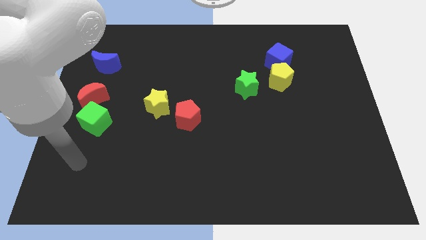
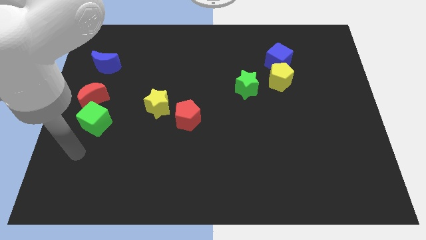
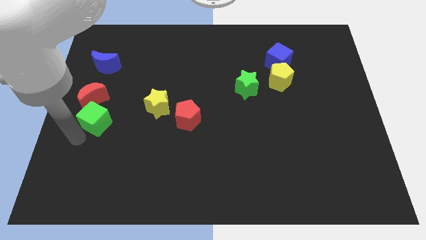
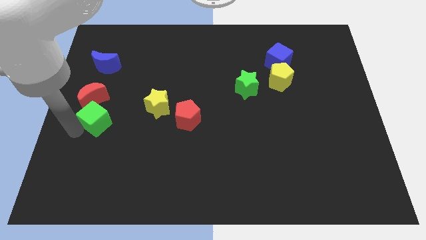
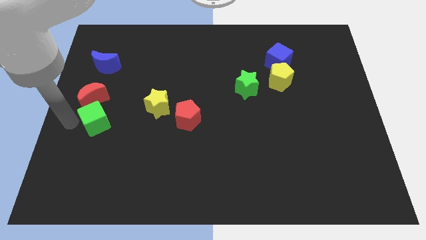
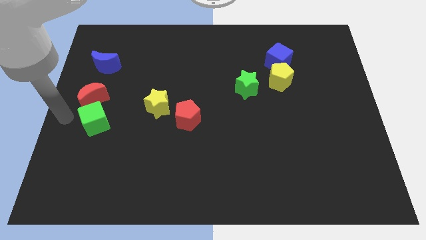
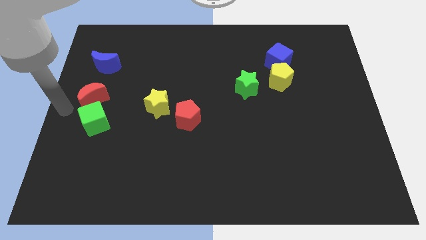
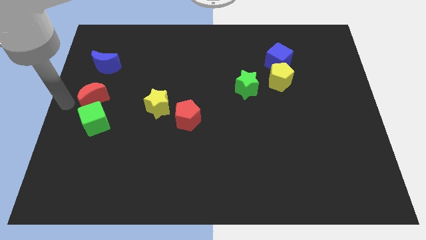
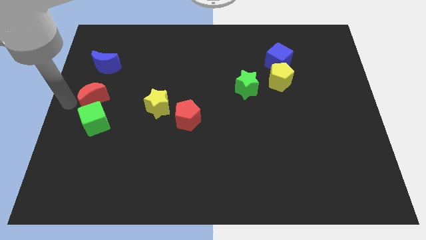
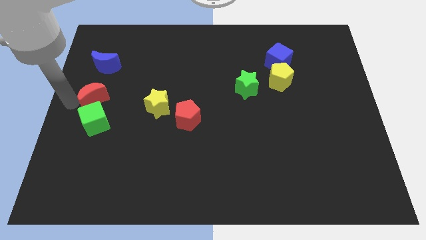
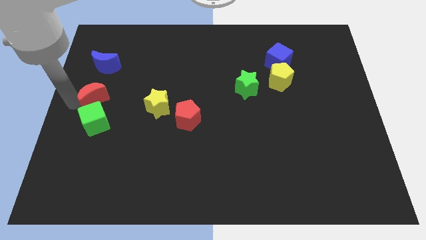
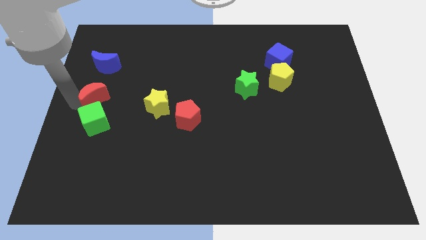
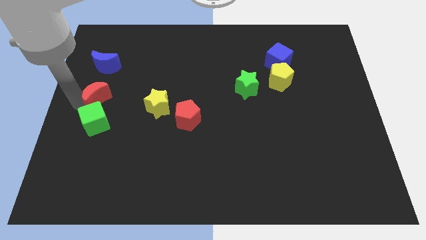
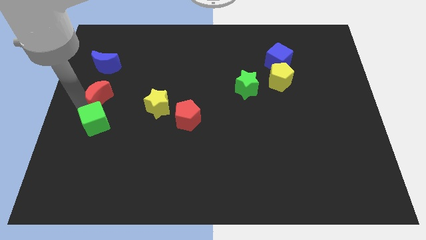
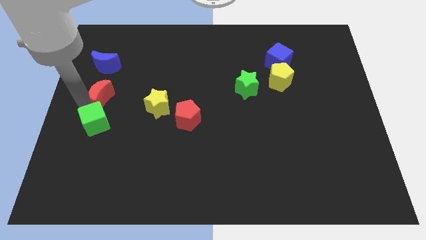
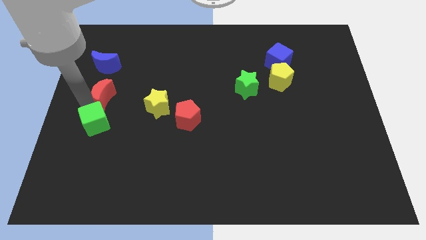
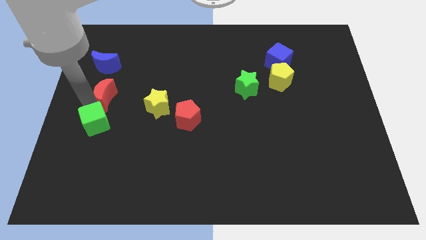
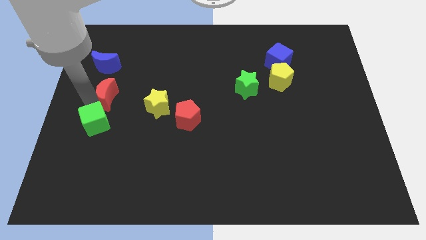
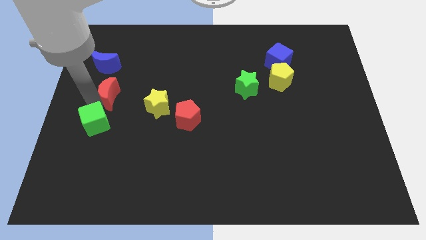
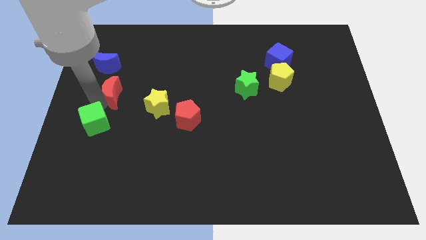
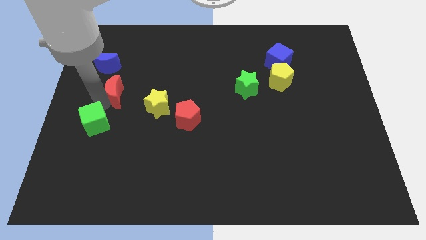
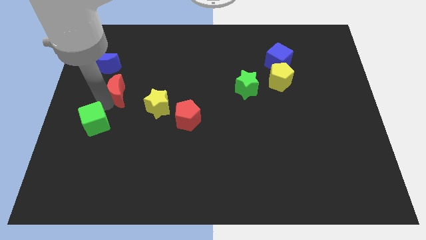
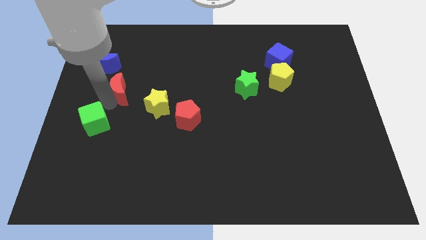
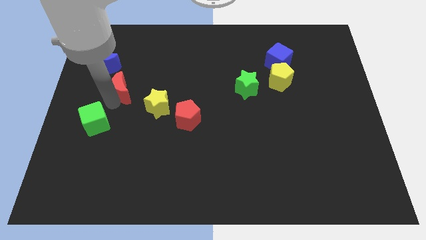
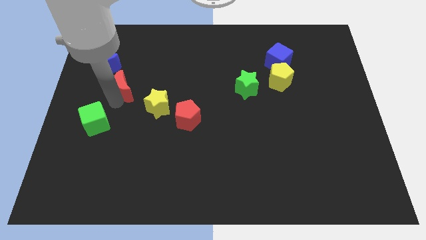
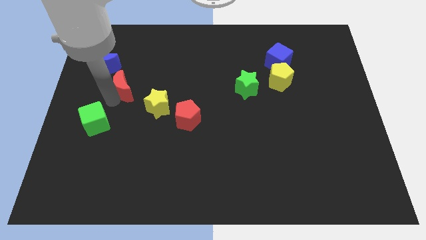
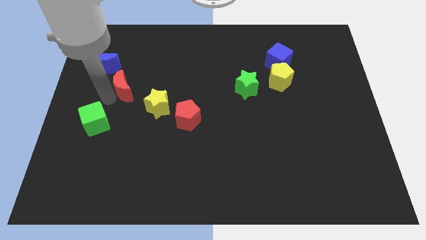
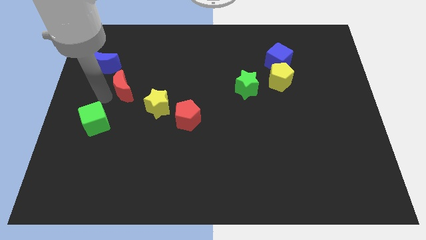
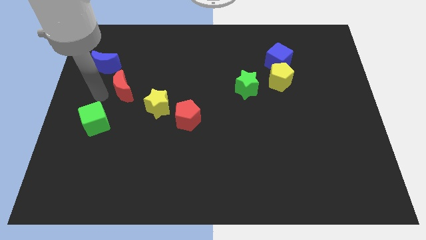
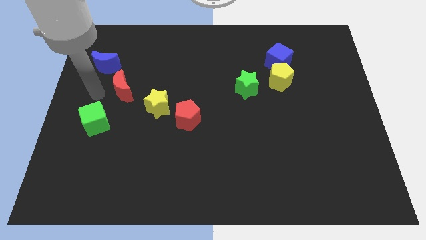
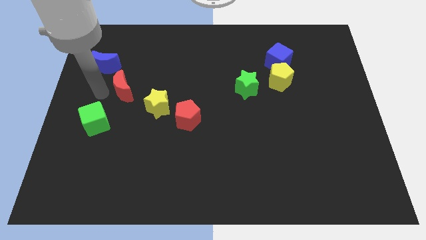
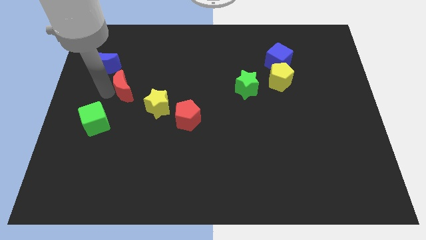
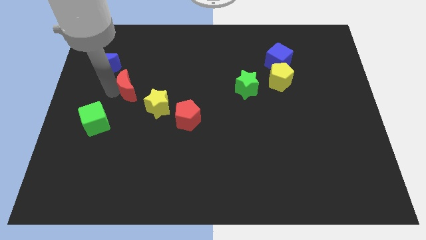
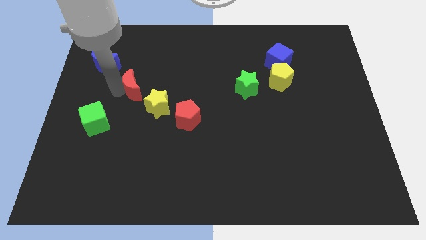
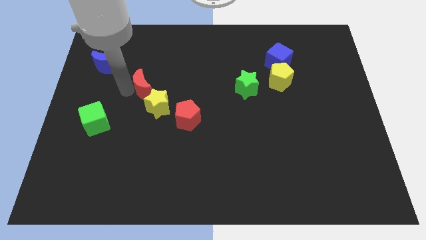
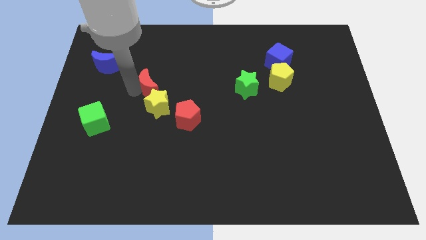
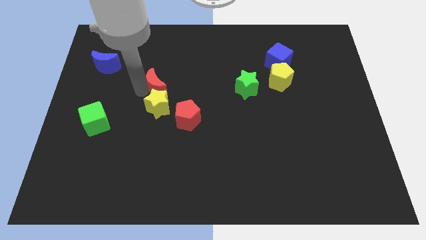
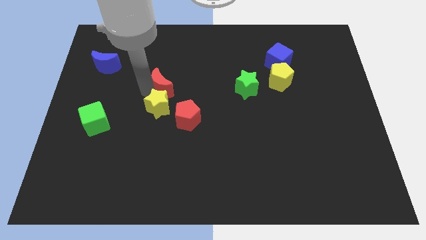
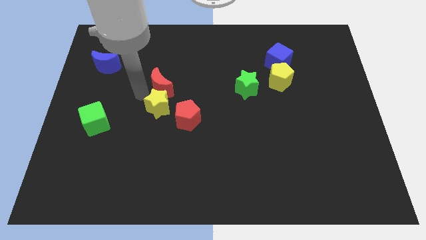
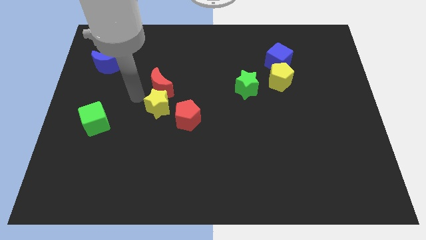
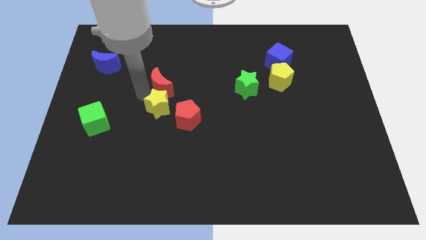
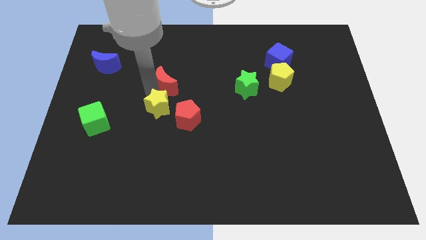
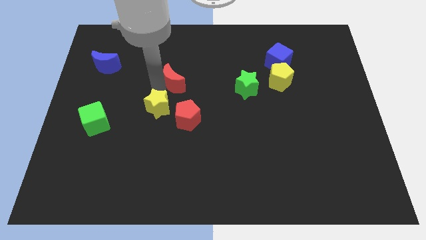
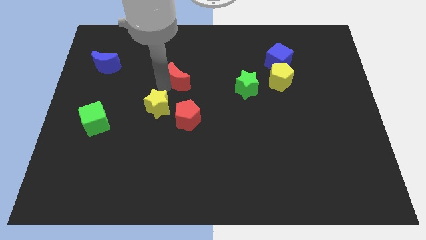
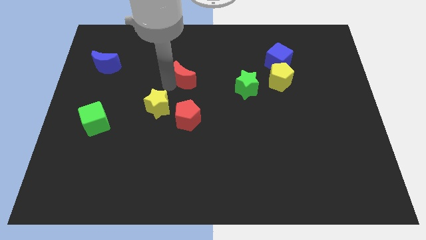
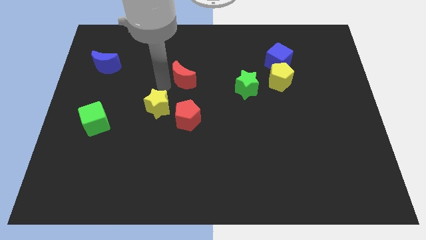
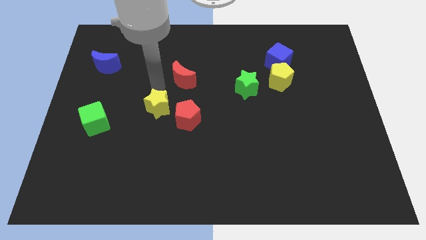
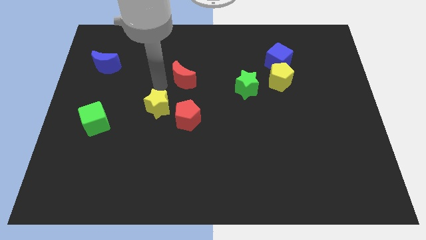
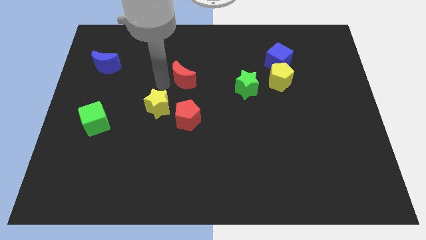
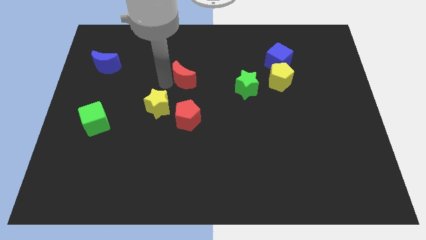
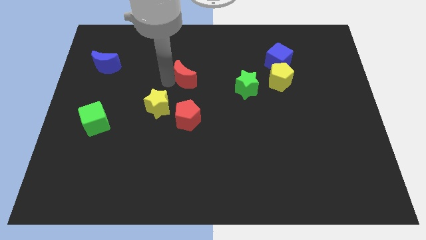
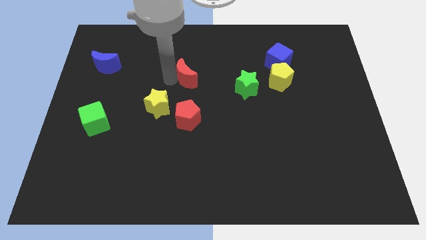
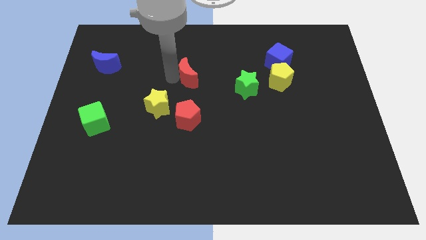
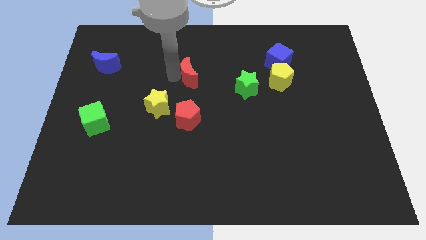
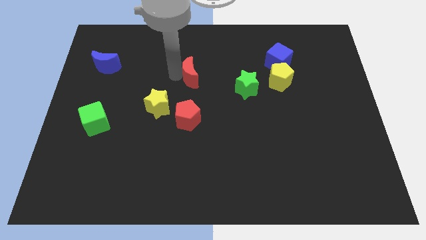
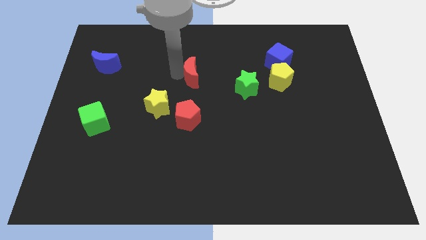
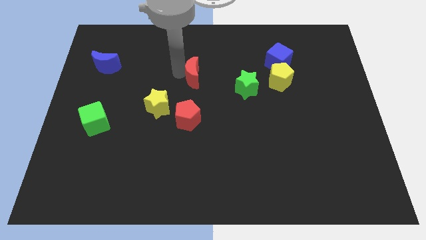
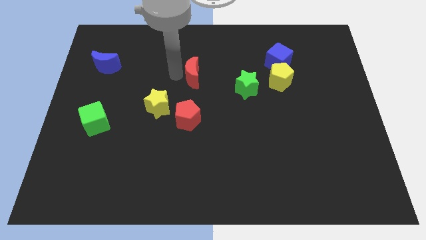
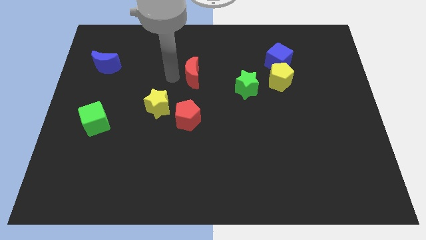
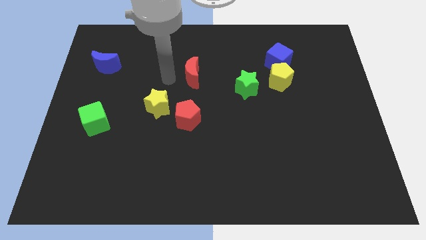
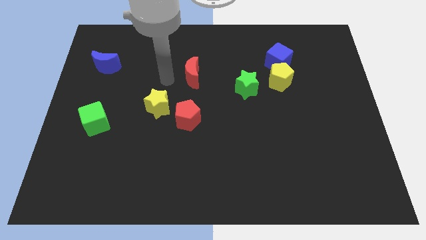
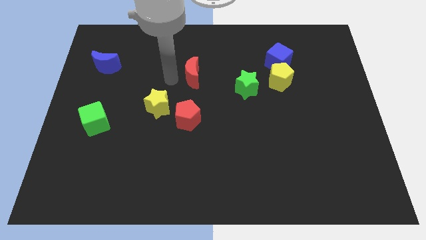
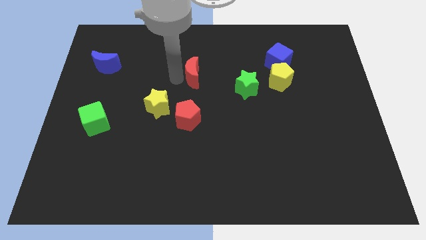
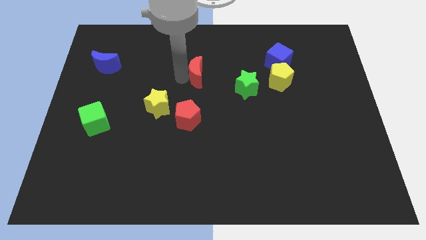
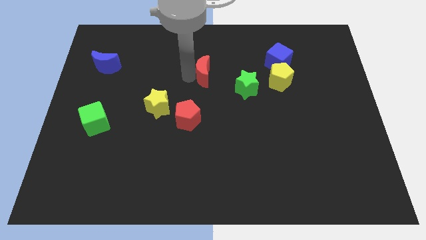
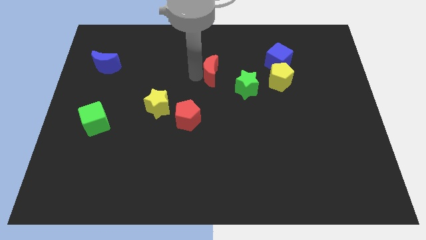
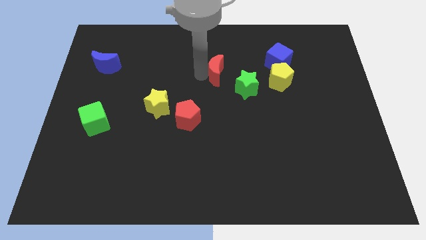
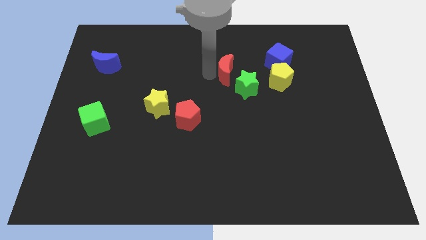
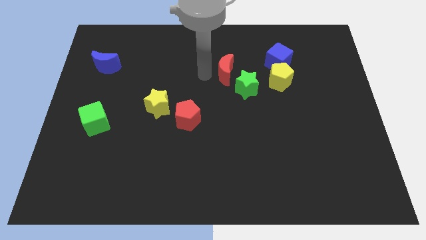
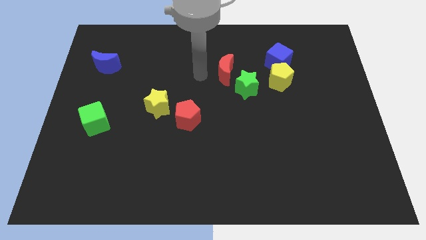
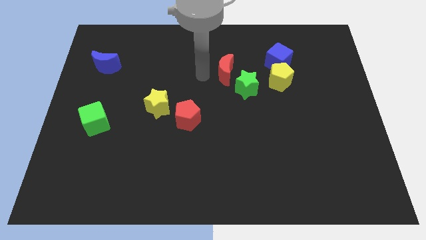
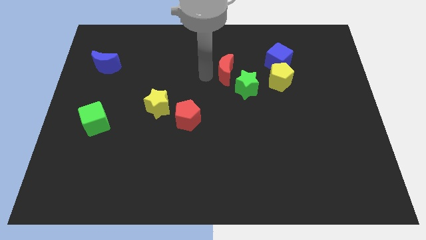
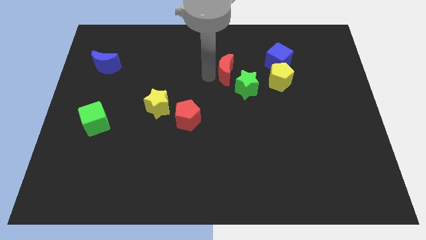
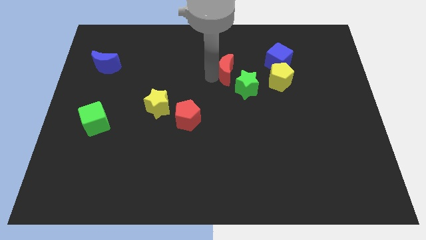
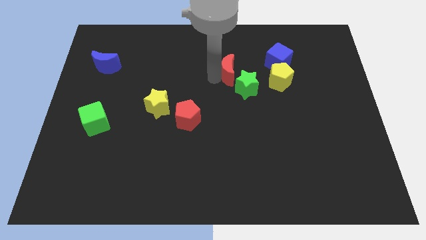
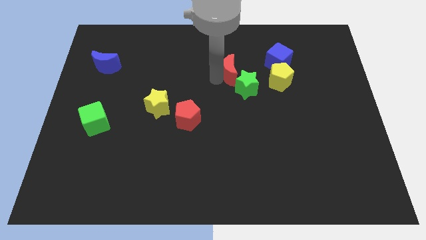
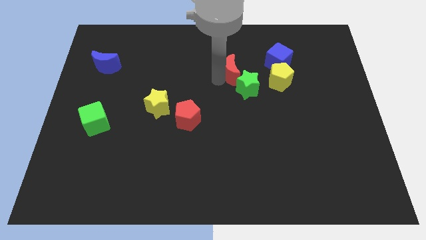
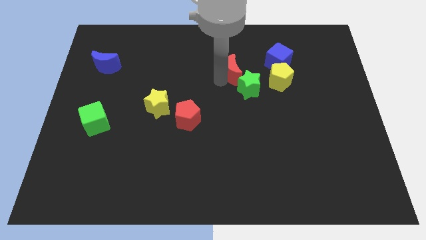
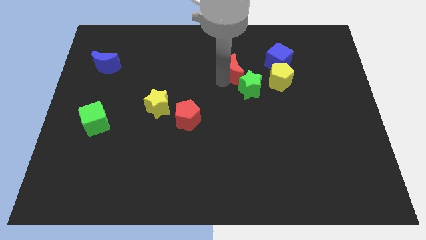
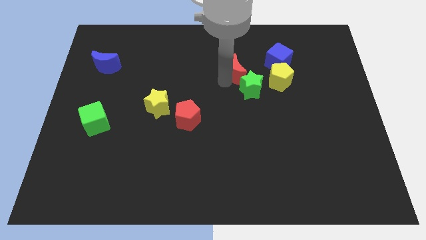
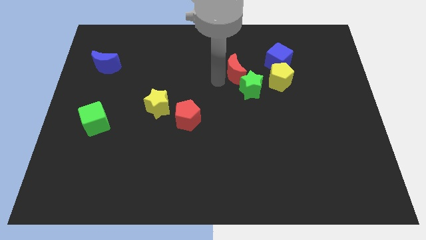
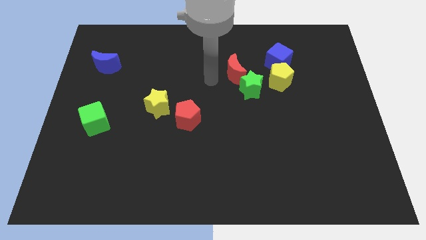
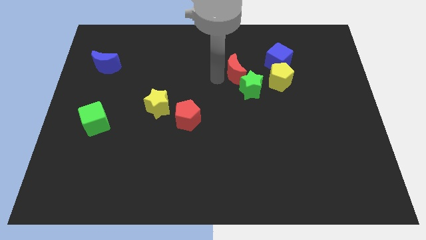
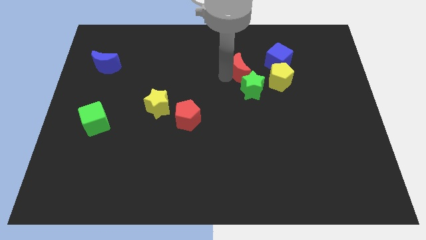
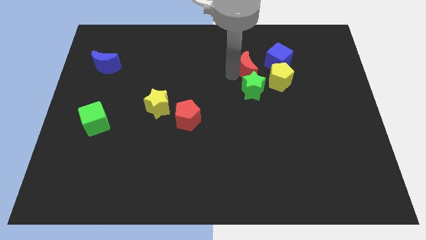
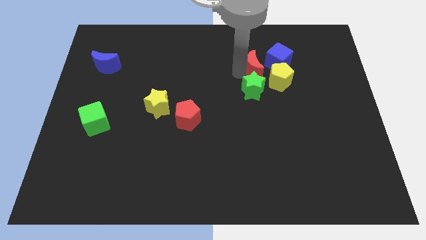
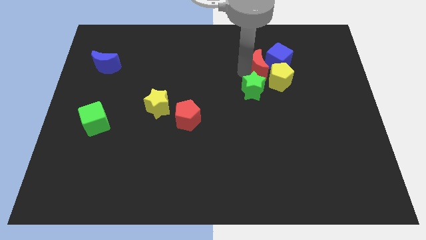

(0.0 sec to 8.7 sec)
slide the red moon next to the blue cube
